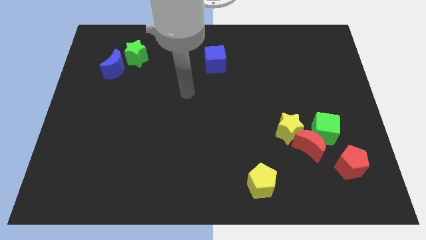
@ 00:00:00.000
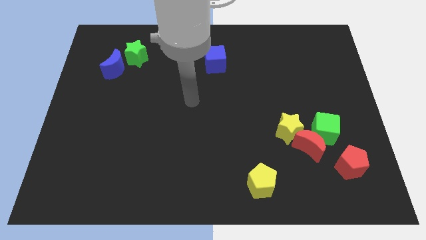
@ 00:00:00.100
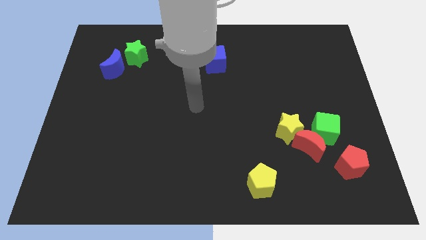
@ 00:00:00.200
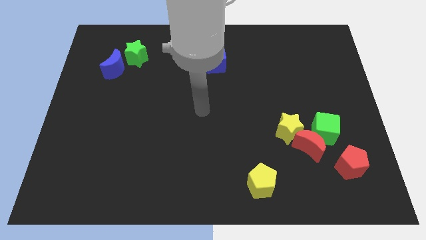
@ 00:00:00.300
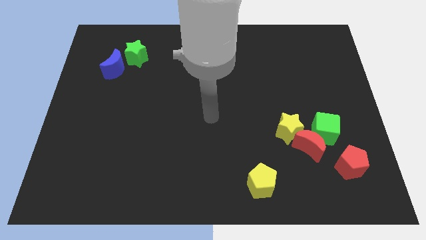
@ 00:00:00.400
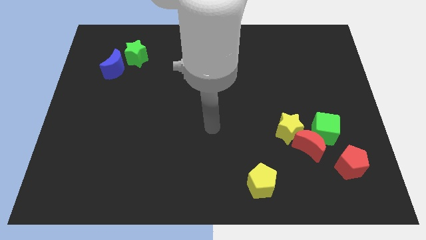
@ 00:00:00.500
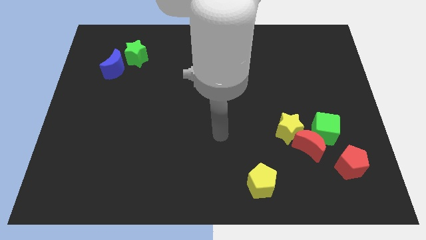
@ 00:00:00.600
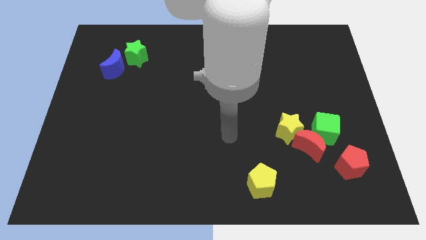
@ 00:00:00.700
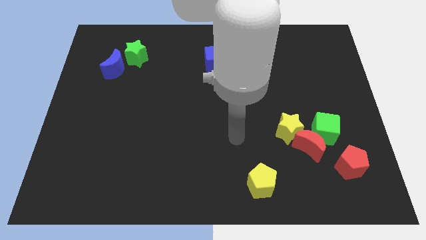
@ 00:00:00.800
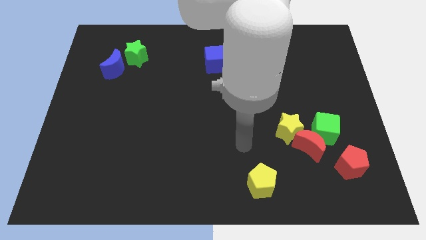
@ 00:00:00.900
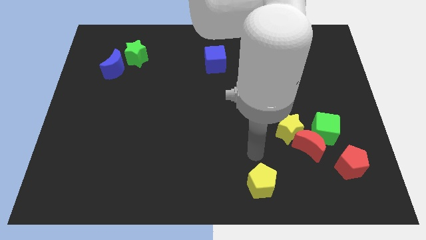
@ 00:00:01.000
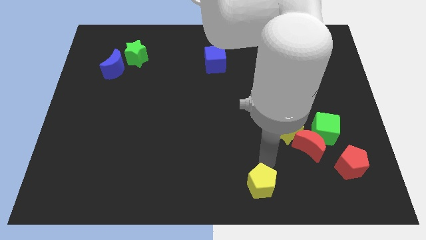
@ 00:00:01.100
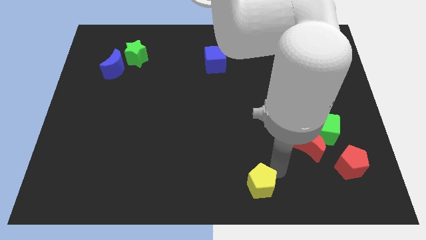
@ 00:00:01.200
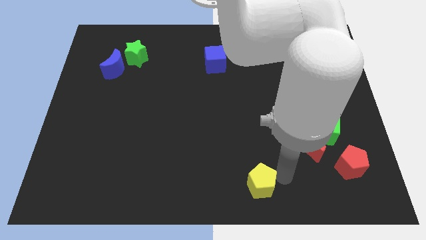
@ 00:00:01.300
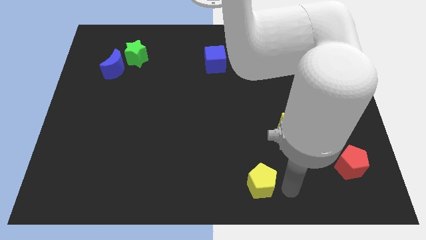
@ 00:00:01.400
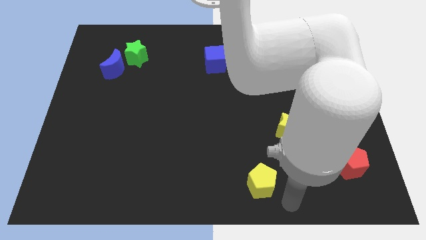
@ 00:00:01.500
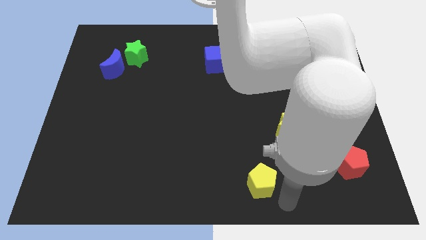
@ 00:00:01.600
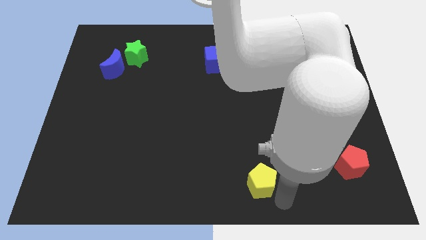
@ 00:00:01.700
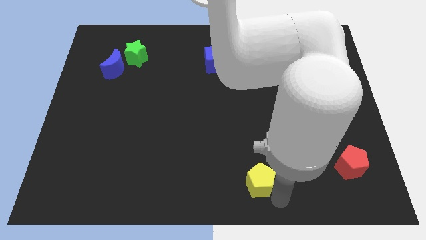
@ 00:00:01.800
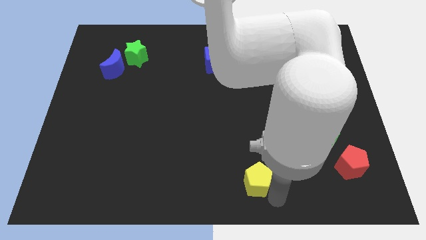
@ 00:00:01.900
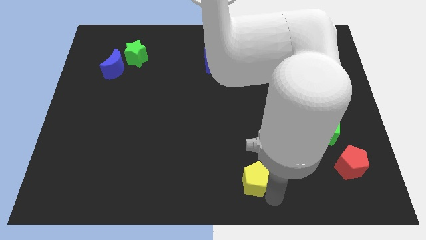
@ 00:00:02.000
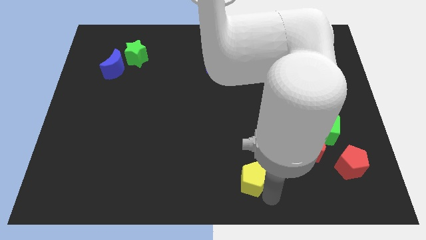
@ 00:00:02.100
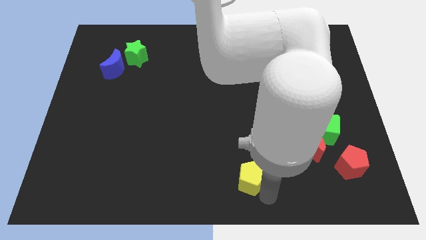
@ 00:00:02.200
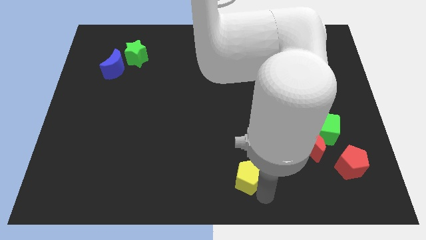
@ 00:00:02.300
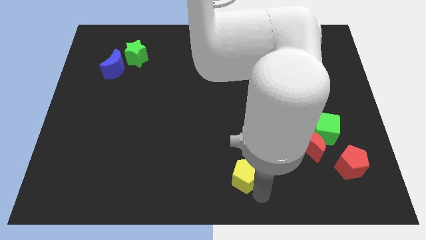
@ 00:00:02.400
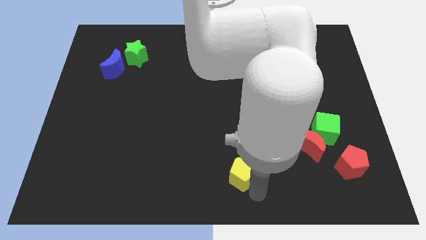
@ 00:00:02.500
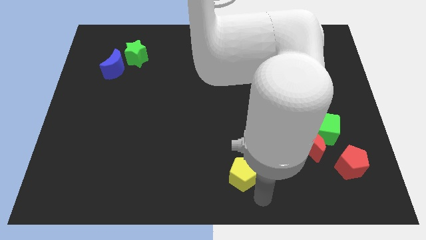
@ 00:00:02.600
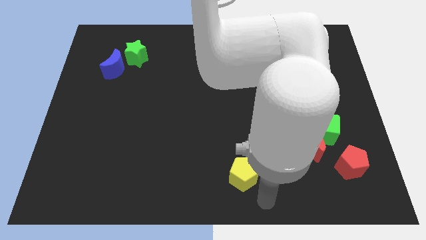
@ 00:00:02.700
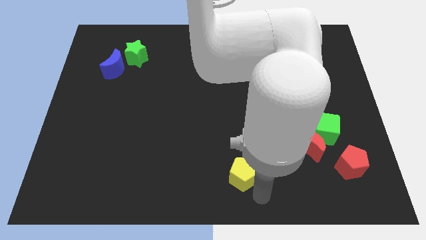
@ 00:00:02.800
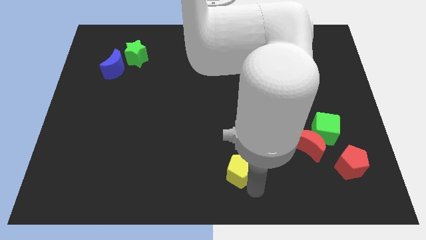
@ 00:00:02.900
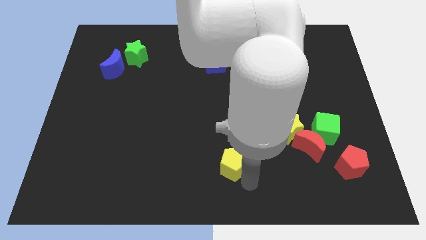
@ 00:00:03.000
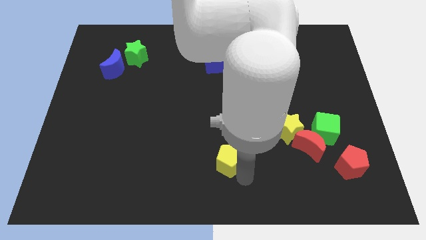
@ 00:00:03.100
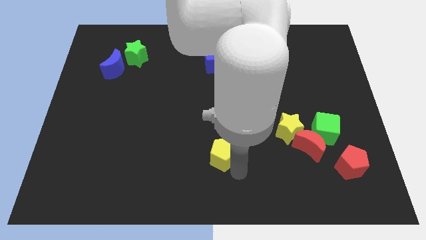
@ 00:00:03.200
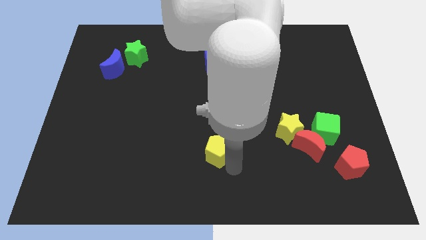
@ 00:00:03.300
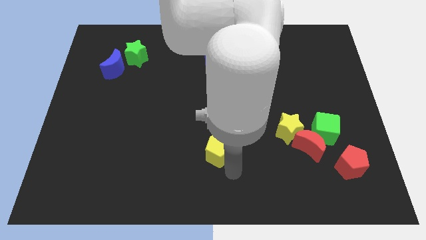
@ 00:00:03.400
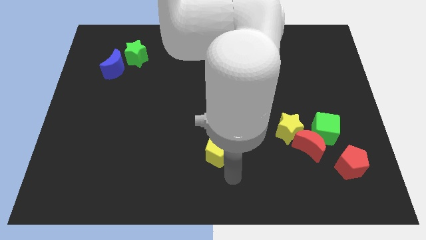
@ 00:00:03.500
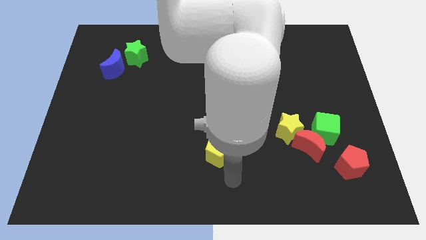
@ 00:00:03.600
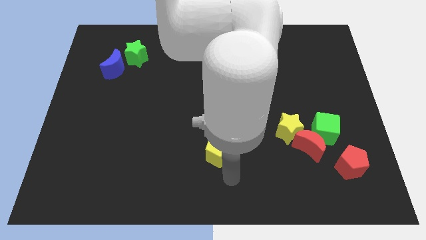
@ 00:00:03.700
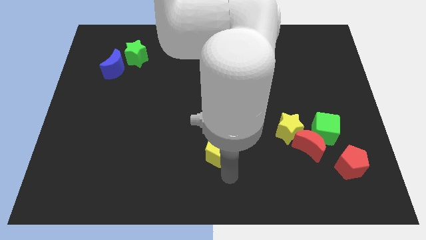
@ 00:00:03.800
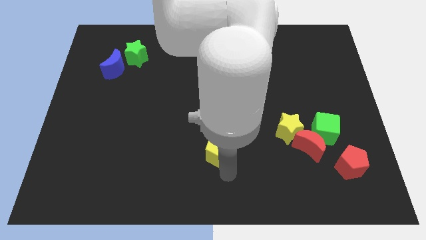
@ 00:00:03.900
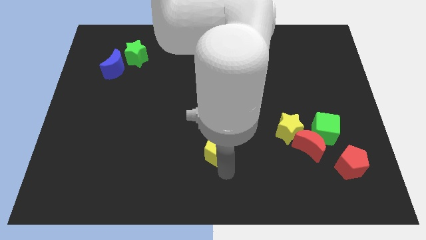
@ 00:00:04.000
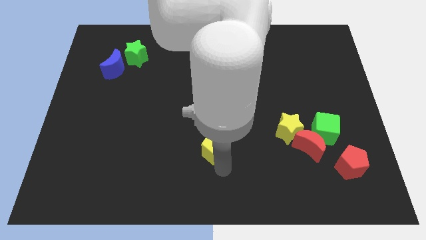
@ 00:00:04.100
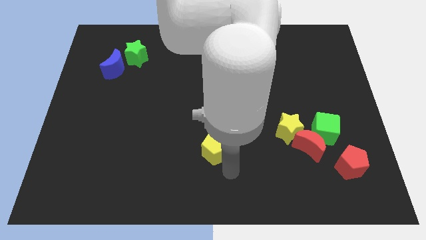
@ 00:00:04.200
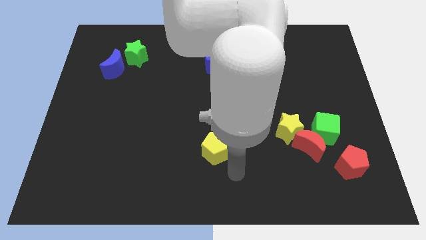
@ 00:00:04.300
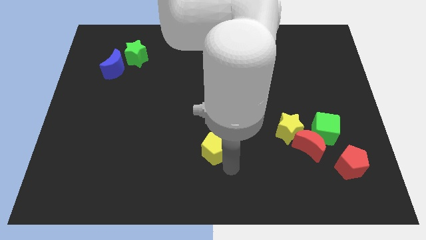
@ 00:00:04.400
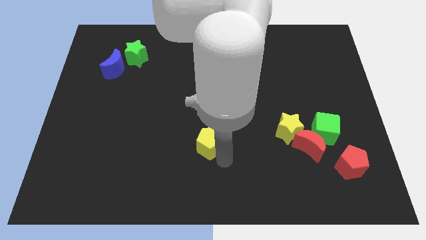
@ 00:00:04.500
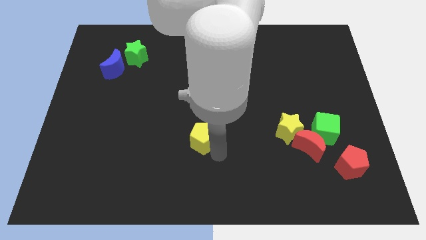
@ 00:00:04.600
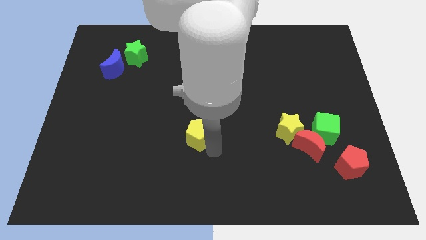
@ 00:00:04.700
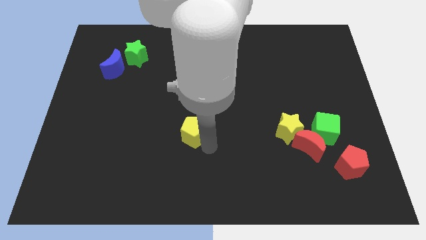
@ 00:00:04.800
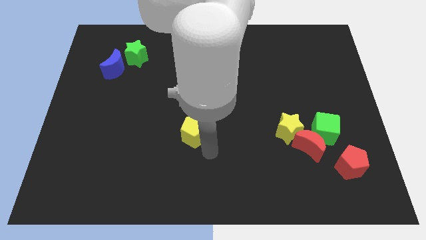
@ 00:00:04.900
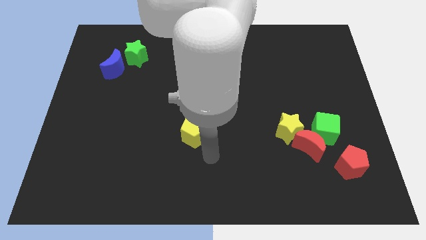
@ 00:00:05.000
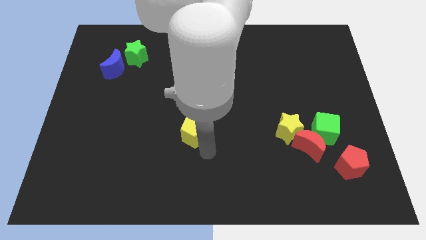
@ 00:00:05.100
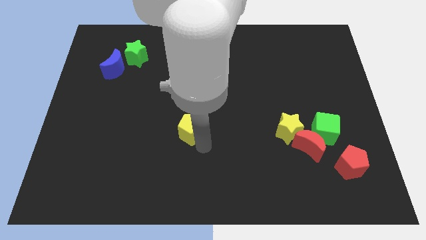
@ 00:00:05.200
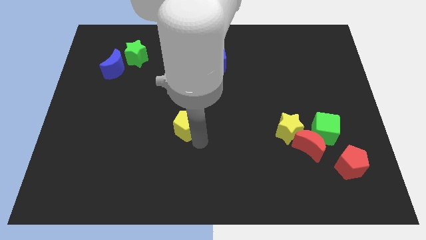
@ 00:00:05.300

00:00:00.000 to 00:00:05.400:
move the yellow pentagon up and then to the left

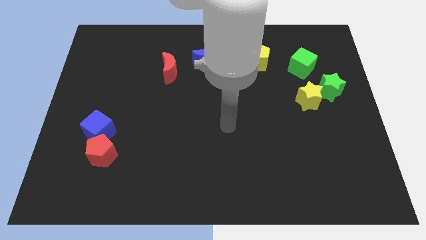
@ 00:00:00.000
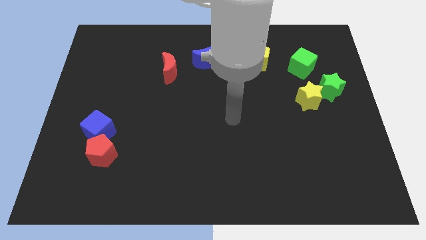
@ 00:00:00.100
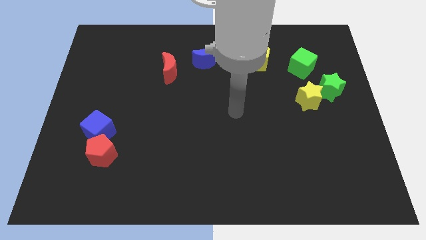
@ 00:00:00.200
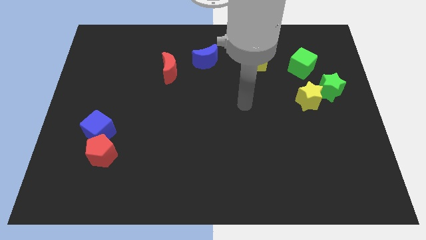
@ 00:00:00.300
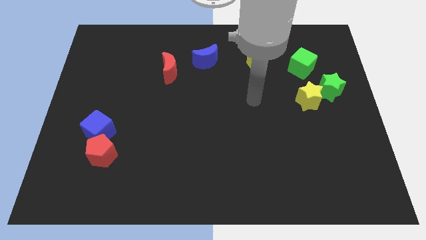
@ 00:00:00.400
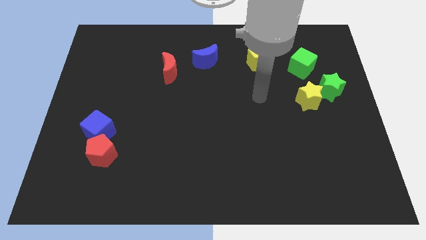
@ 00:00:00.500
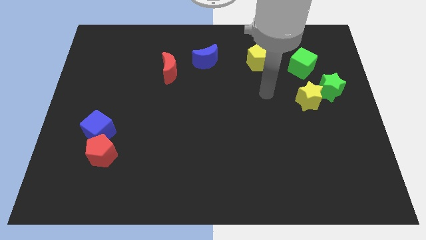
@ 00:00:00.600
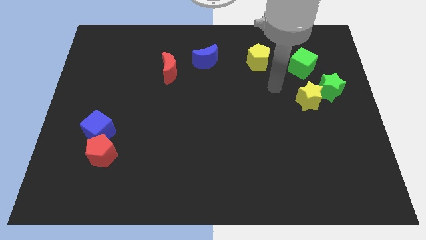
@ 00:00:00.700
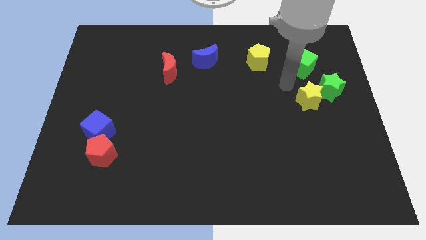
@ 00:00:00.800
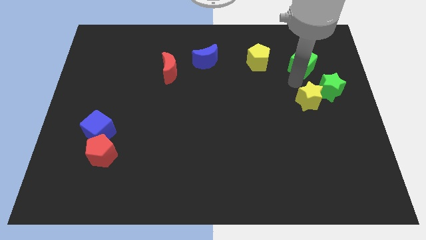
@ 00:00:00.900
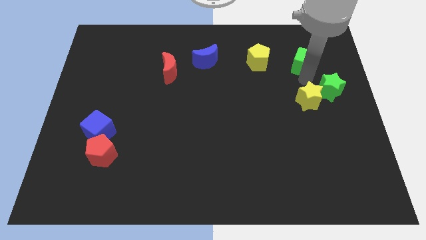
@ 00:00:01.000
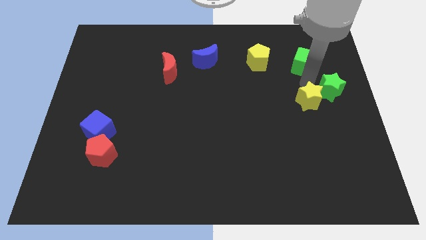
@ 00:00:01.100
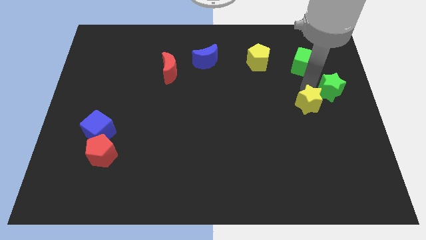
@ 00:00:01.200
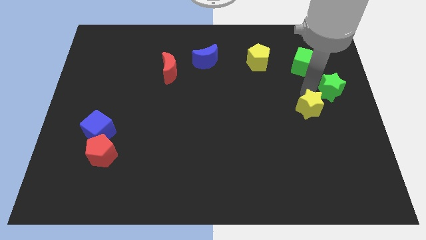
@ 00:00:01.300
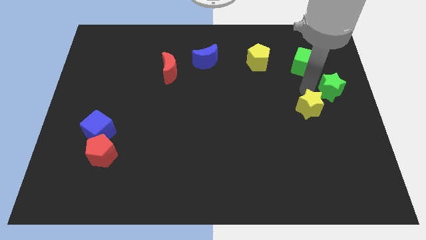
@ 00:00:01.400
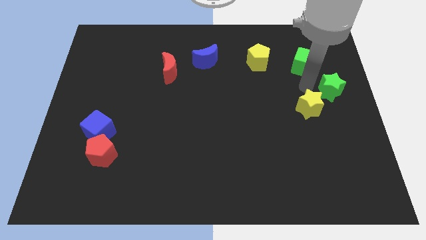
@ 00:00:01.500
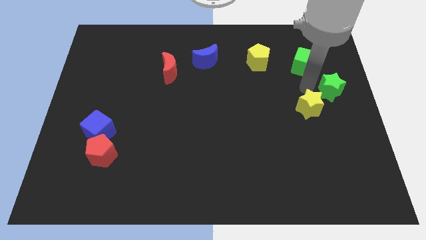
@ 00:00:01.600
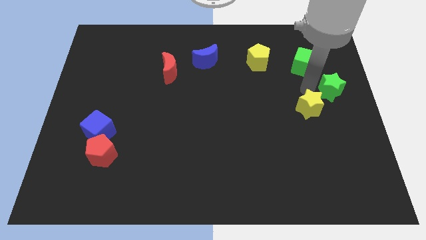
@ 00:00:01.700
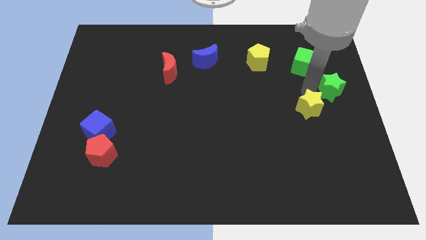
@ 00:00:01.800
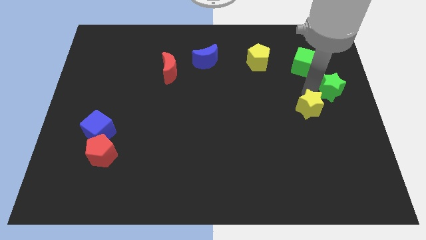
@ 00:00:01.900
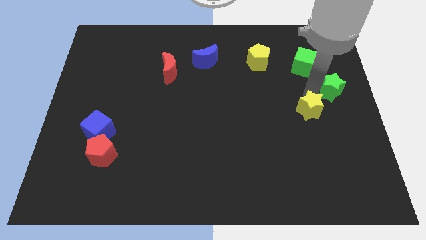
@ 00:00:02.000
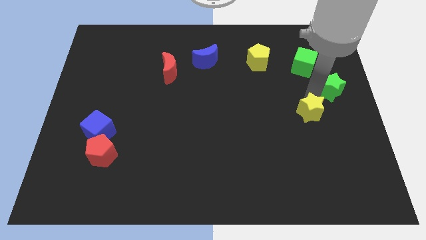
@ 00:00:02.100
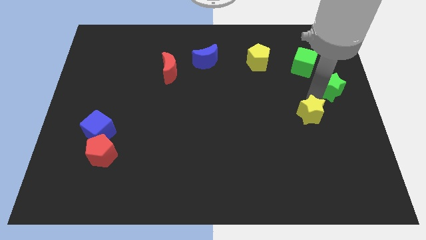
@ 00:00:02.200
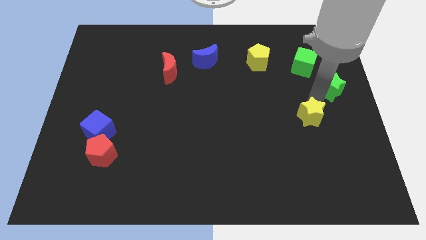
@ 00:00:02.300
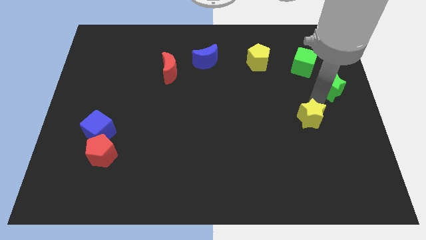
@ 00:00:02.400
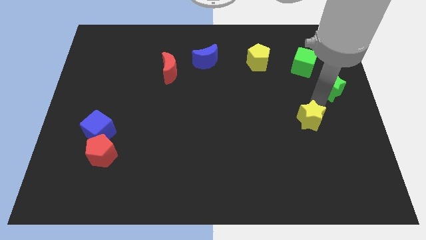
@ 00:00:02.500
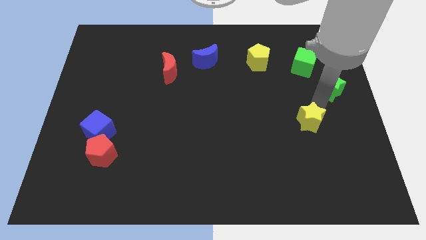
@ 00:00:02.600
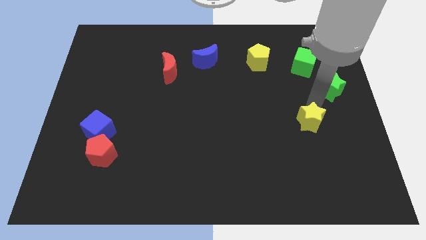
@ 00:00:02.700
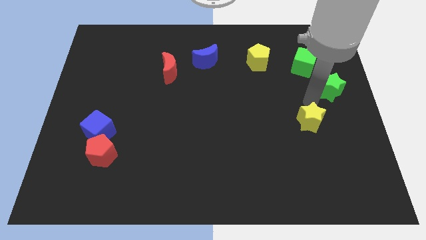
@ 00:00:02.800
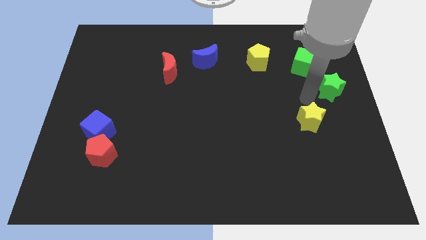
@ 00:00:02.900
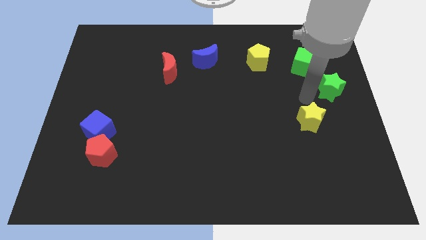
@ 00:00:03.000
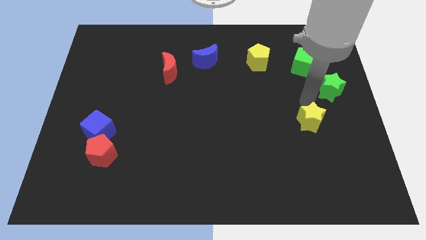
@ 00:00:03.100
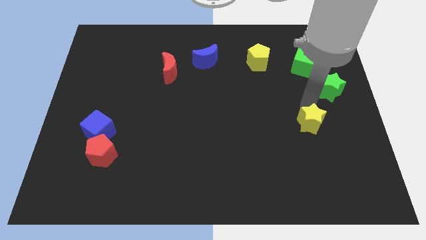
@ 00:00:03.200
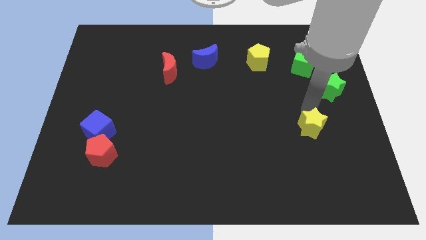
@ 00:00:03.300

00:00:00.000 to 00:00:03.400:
slide the yellow star down a little
